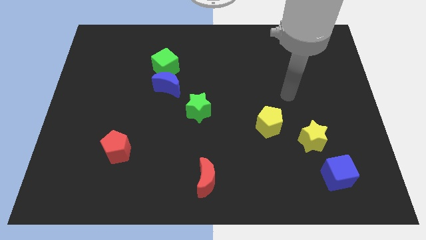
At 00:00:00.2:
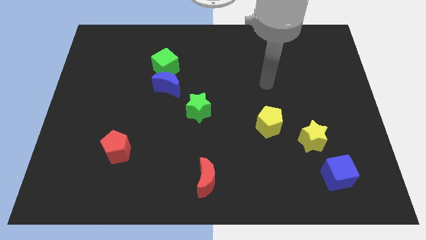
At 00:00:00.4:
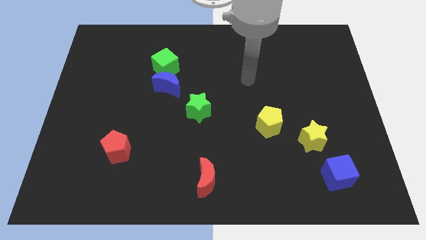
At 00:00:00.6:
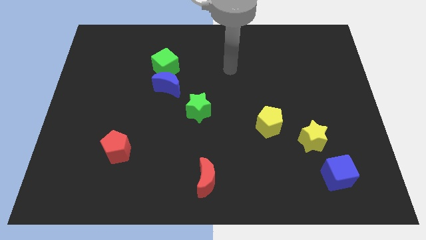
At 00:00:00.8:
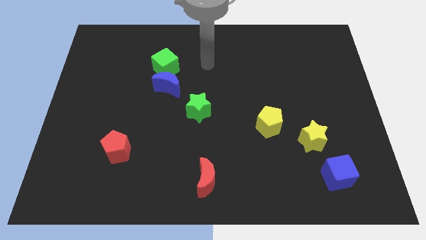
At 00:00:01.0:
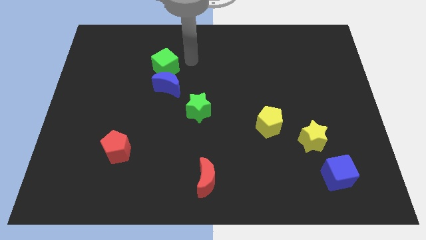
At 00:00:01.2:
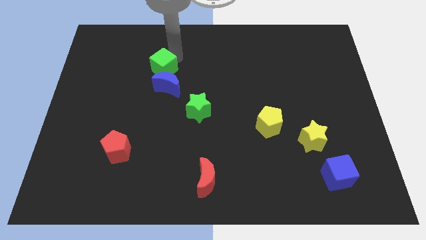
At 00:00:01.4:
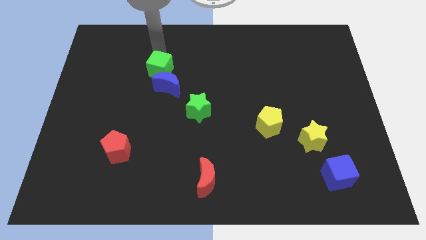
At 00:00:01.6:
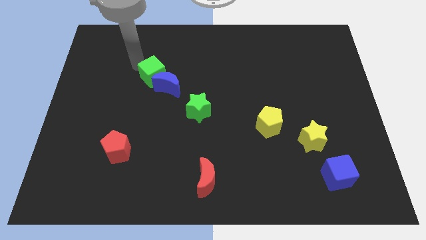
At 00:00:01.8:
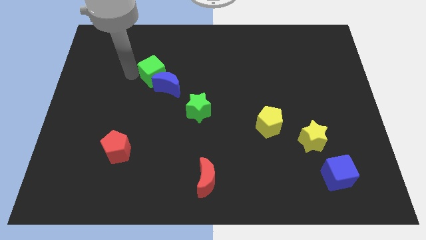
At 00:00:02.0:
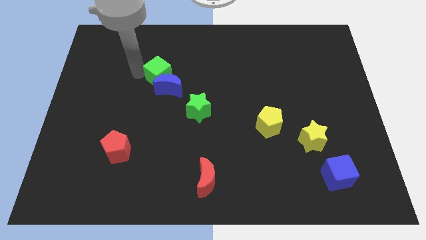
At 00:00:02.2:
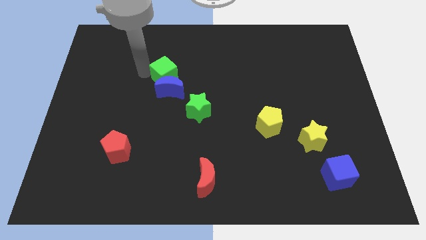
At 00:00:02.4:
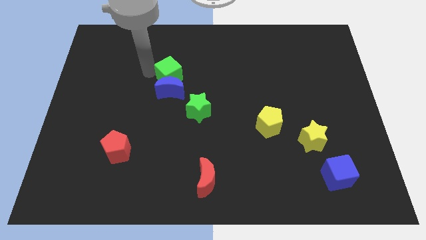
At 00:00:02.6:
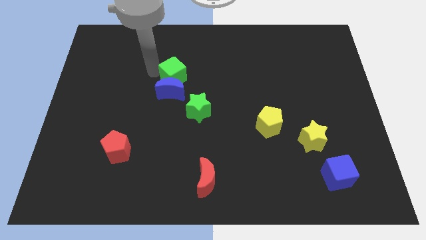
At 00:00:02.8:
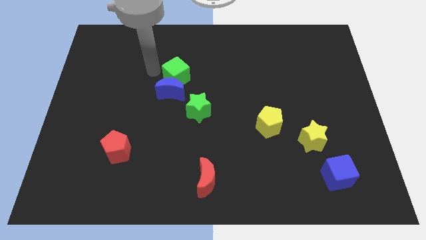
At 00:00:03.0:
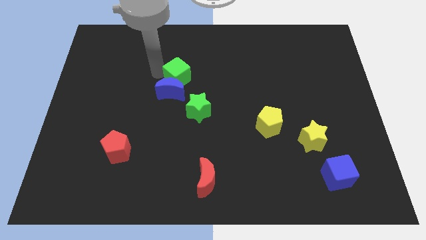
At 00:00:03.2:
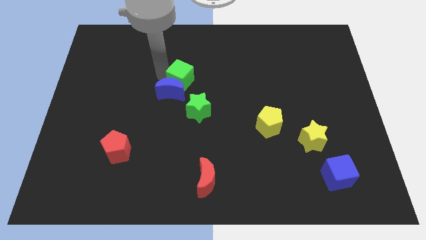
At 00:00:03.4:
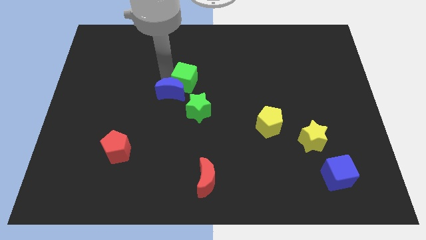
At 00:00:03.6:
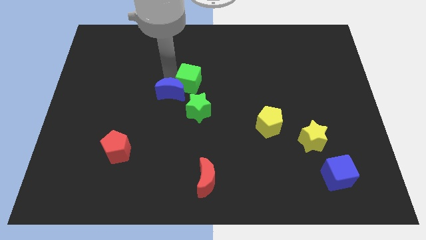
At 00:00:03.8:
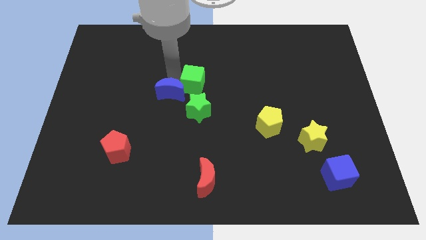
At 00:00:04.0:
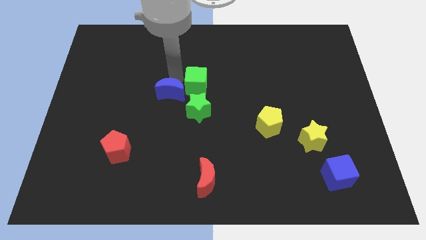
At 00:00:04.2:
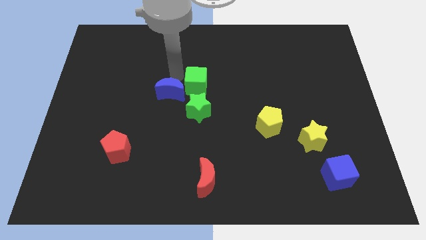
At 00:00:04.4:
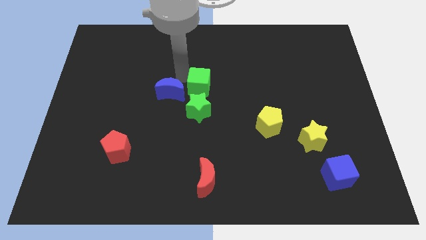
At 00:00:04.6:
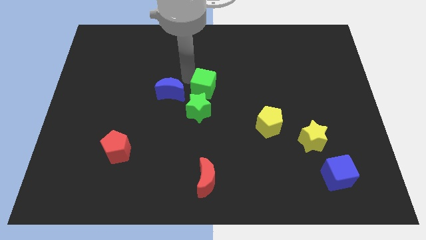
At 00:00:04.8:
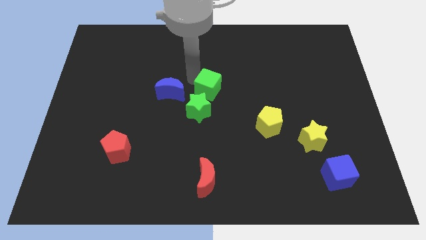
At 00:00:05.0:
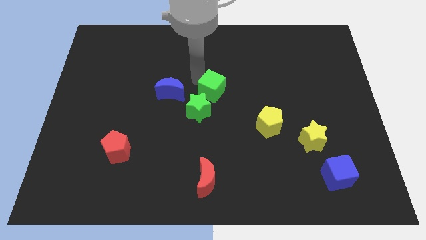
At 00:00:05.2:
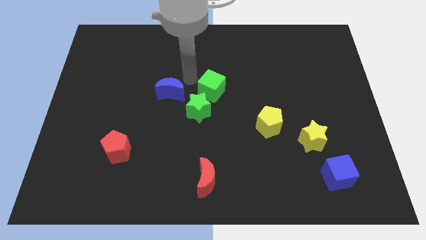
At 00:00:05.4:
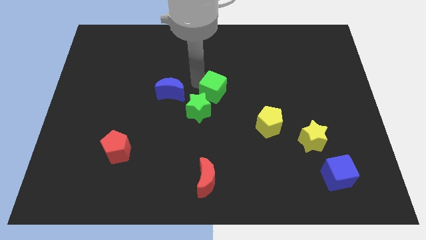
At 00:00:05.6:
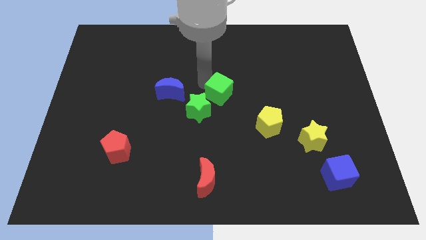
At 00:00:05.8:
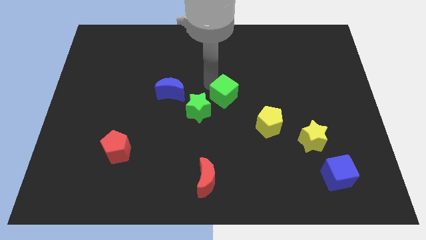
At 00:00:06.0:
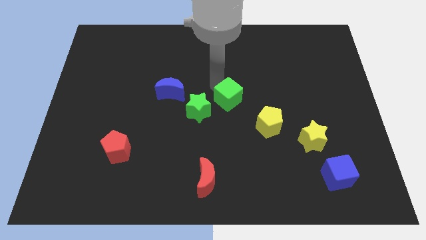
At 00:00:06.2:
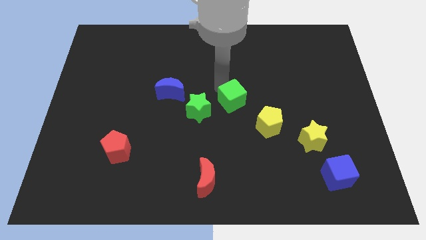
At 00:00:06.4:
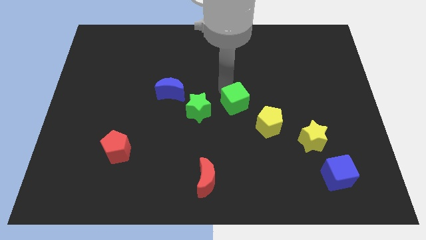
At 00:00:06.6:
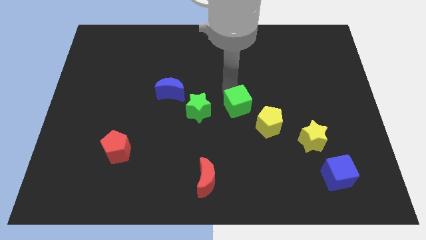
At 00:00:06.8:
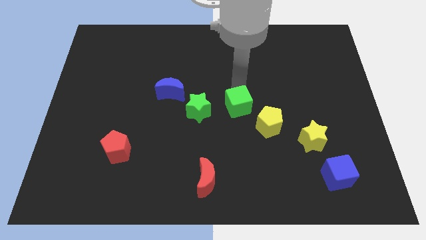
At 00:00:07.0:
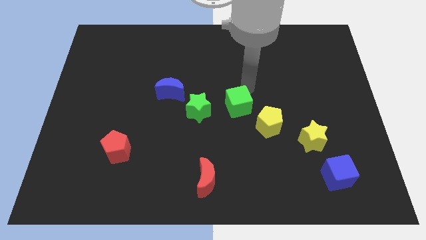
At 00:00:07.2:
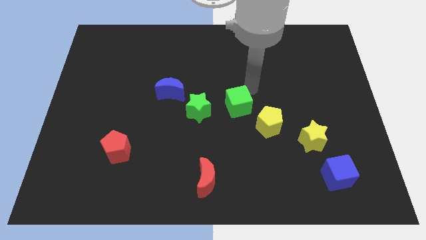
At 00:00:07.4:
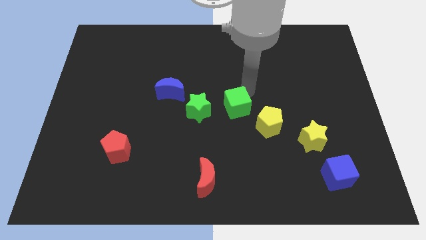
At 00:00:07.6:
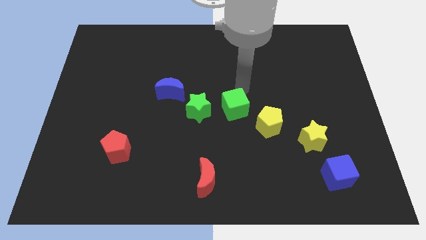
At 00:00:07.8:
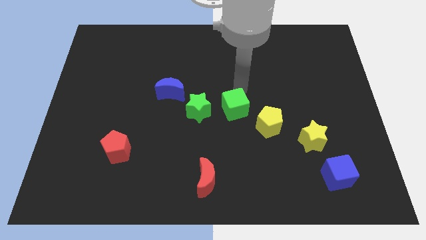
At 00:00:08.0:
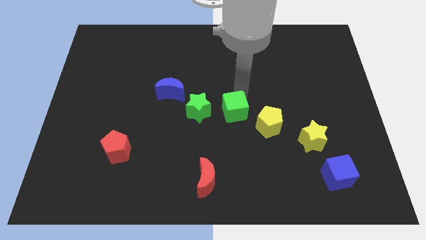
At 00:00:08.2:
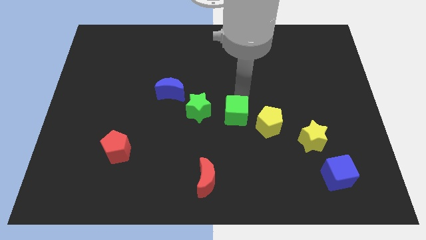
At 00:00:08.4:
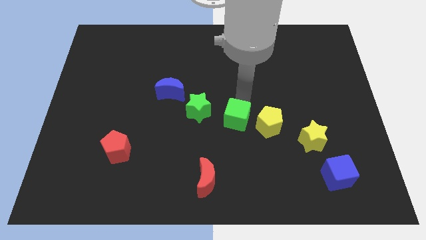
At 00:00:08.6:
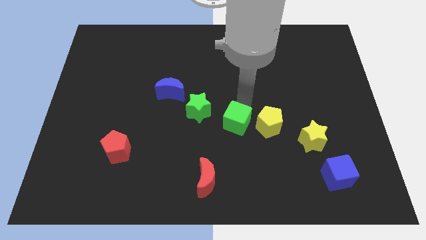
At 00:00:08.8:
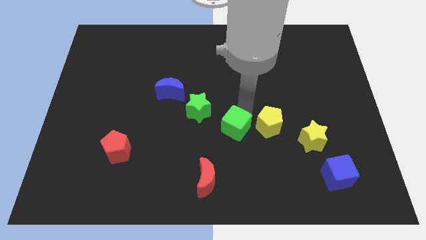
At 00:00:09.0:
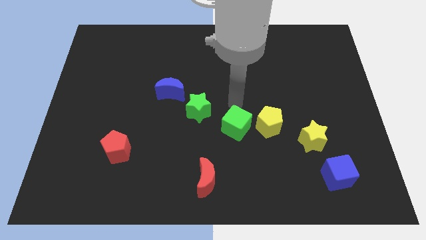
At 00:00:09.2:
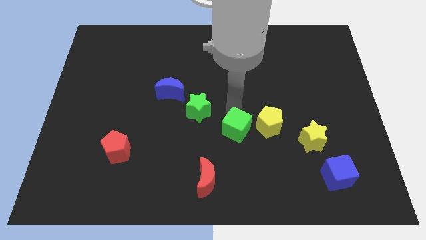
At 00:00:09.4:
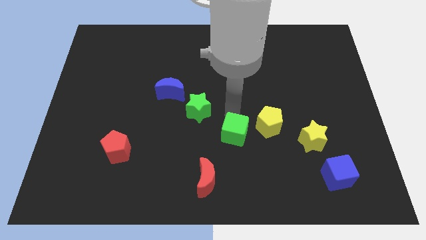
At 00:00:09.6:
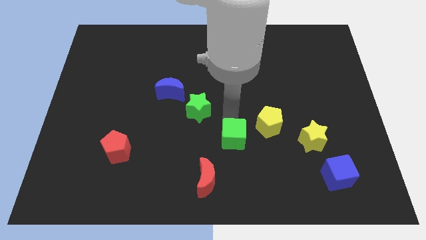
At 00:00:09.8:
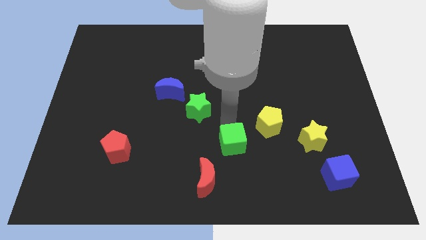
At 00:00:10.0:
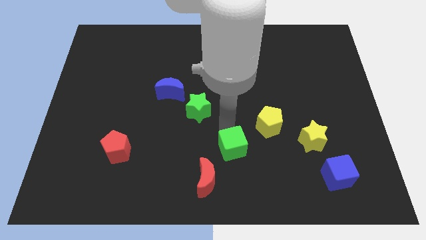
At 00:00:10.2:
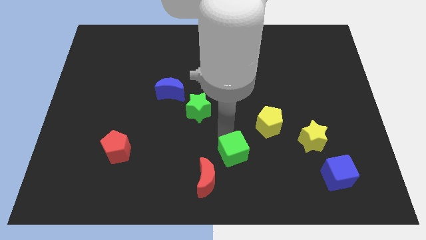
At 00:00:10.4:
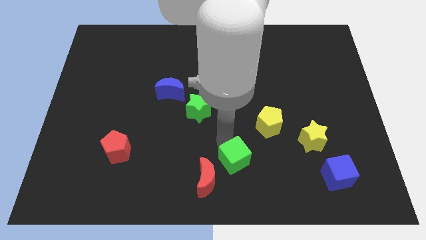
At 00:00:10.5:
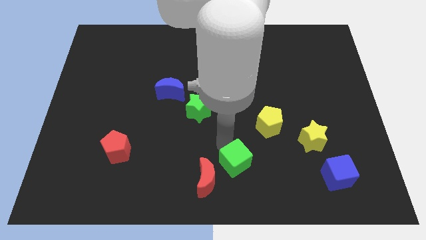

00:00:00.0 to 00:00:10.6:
push the green cube to the right of the red moon

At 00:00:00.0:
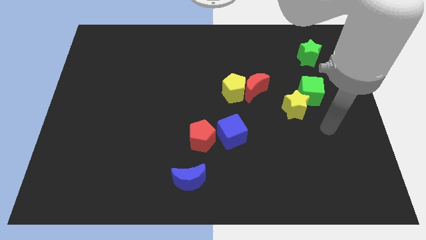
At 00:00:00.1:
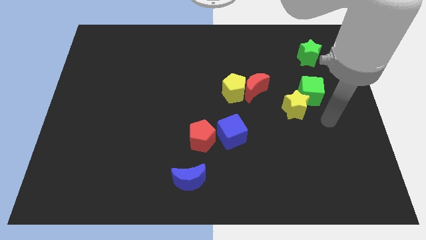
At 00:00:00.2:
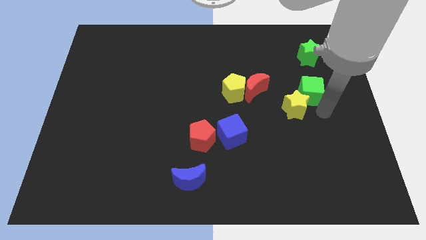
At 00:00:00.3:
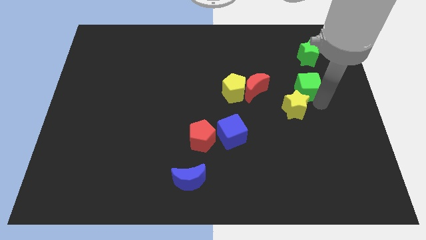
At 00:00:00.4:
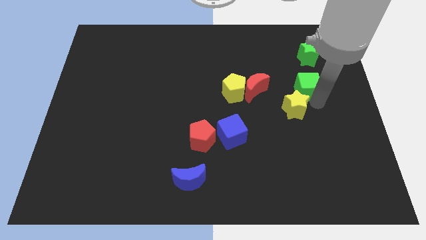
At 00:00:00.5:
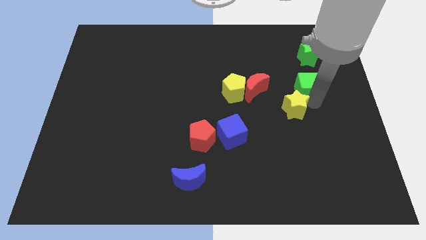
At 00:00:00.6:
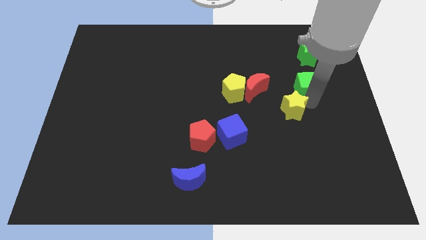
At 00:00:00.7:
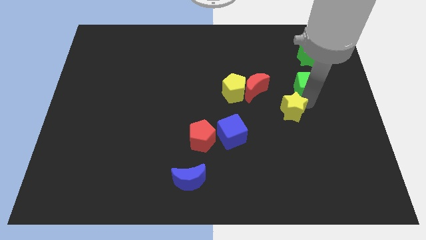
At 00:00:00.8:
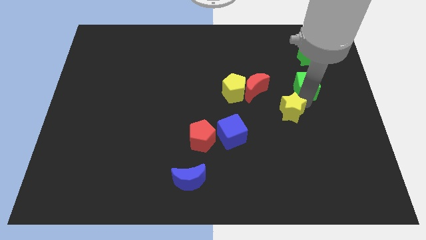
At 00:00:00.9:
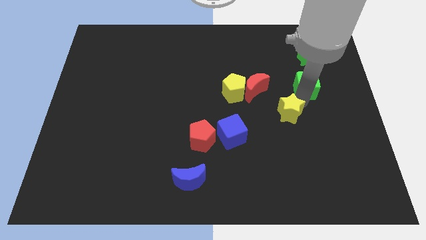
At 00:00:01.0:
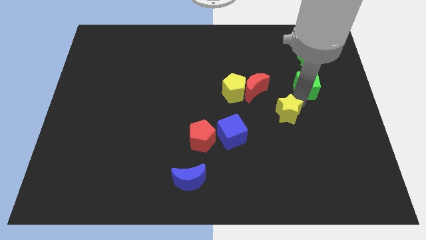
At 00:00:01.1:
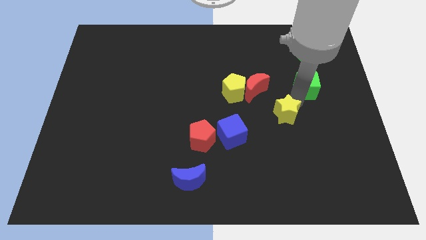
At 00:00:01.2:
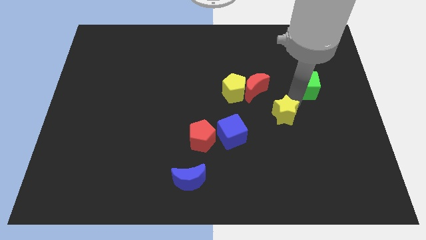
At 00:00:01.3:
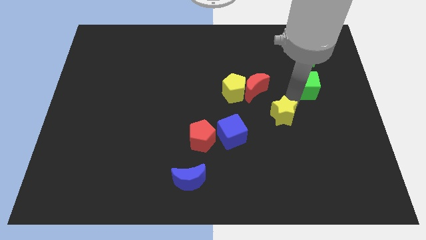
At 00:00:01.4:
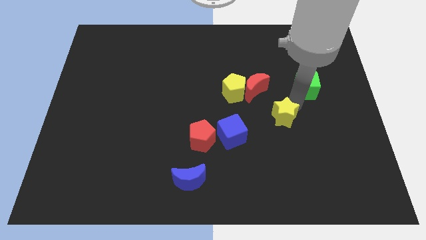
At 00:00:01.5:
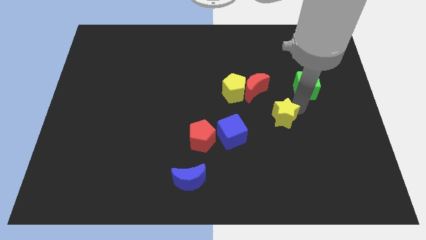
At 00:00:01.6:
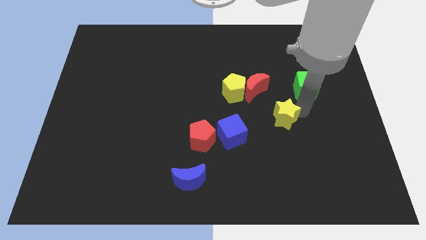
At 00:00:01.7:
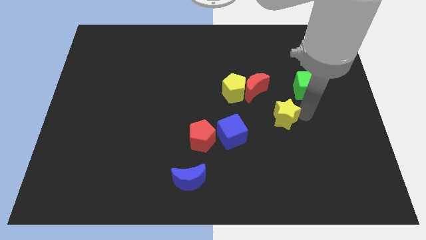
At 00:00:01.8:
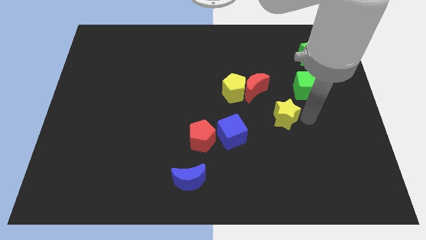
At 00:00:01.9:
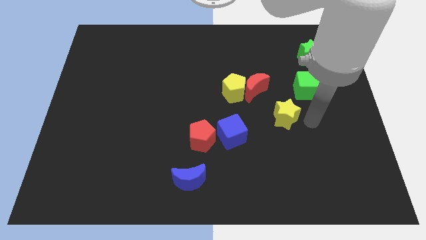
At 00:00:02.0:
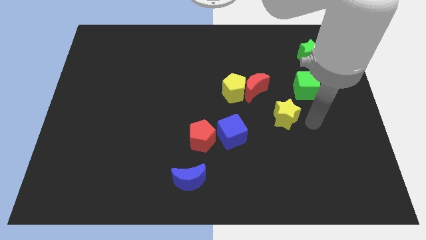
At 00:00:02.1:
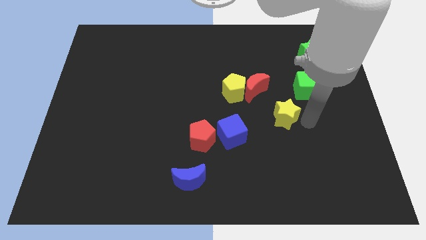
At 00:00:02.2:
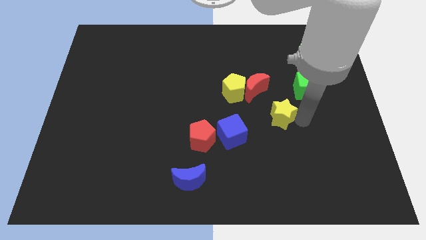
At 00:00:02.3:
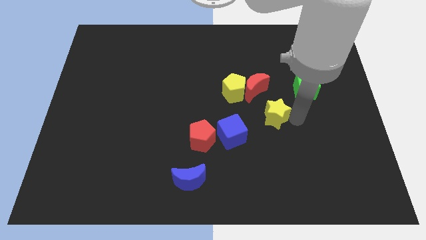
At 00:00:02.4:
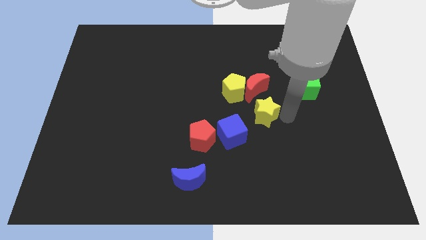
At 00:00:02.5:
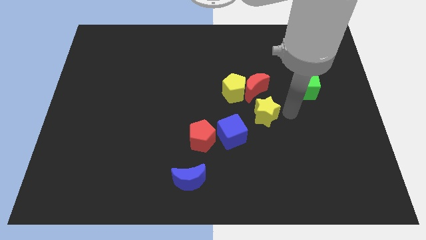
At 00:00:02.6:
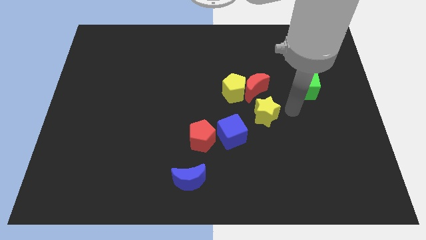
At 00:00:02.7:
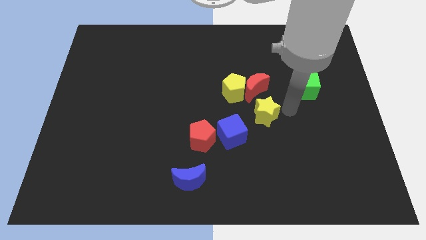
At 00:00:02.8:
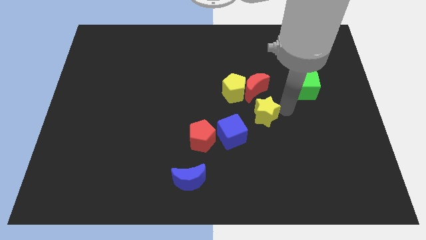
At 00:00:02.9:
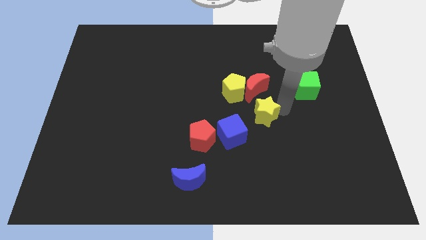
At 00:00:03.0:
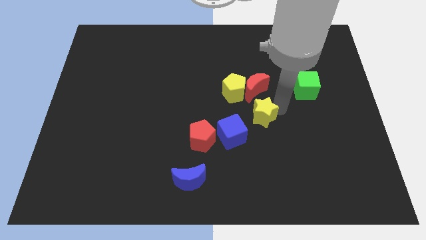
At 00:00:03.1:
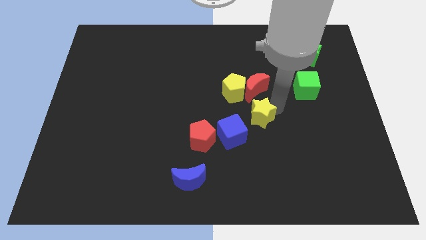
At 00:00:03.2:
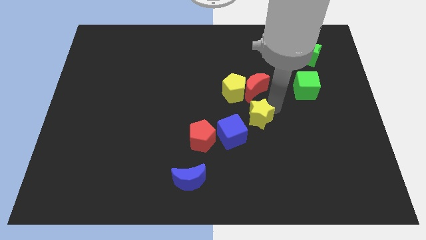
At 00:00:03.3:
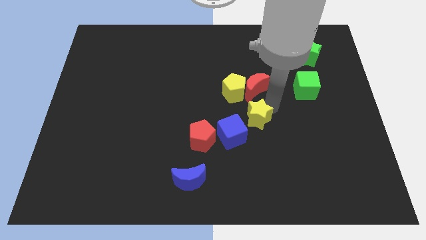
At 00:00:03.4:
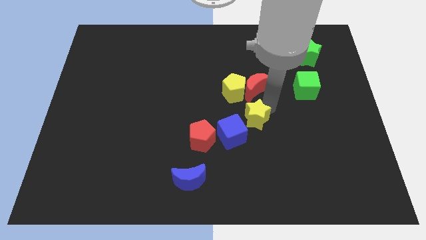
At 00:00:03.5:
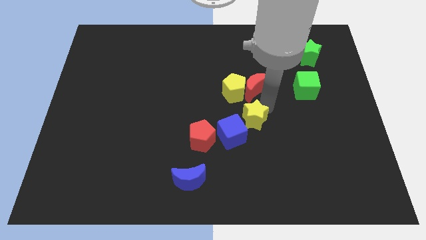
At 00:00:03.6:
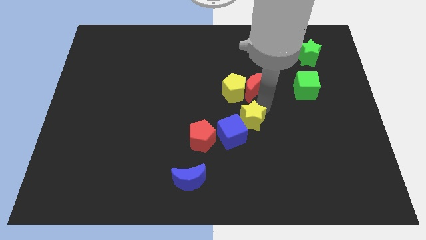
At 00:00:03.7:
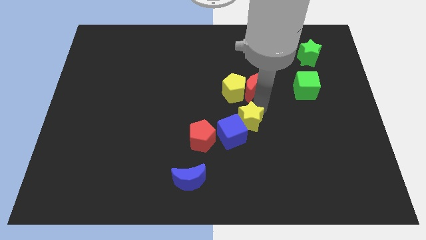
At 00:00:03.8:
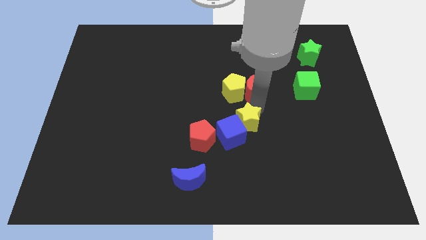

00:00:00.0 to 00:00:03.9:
move the yellow star to the top right of the red pentagon
